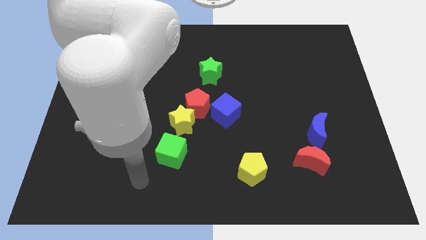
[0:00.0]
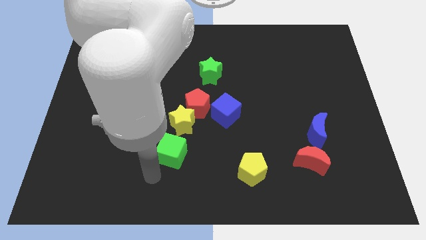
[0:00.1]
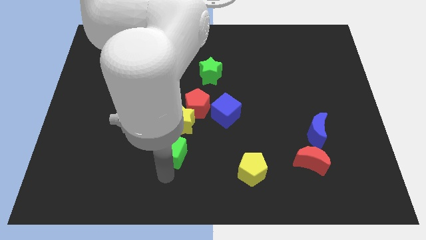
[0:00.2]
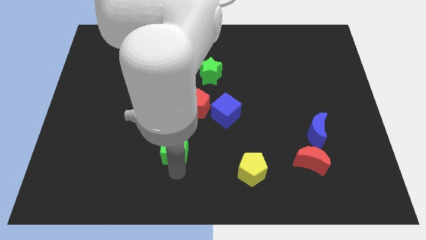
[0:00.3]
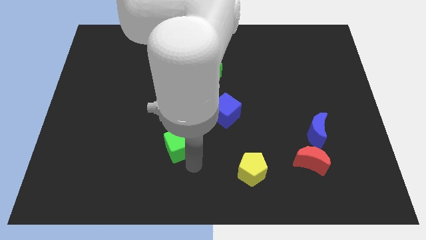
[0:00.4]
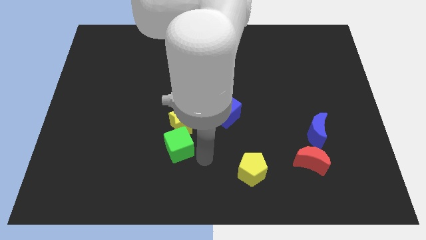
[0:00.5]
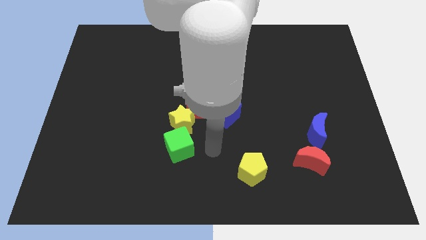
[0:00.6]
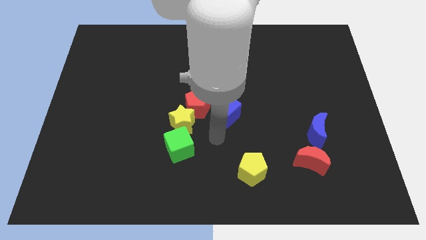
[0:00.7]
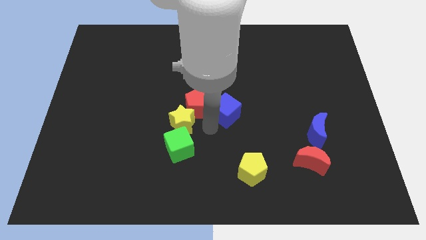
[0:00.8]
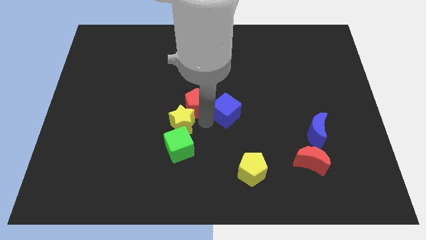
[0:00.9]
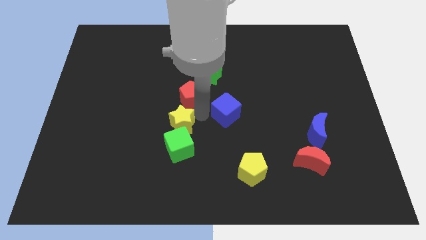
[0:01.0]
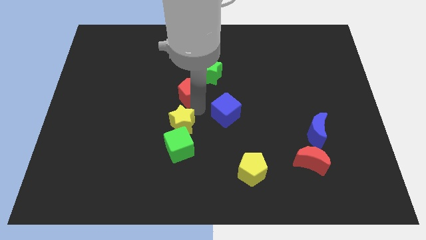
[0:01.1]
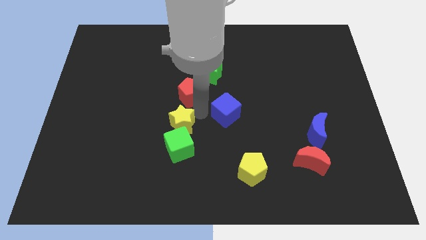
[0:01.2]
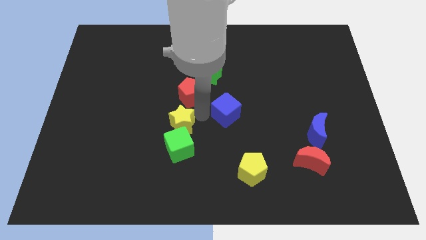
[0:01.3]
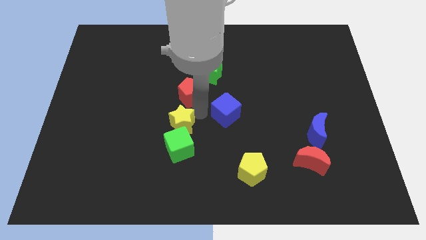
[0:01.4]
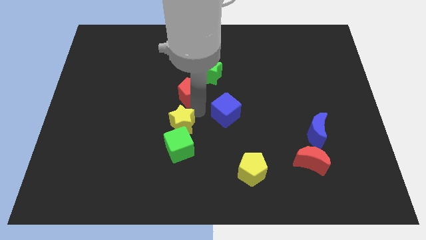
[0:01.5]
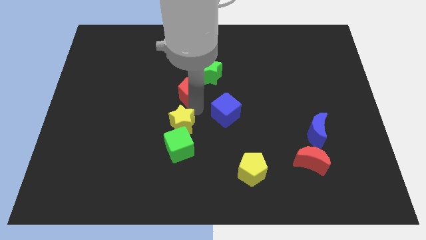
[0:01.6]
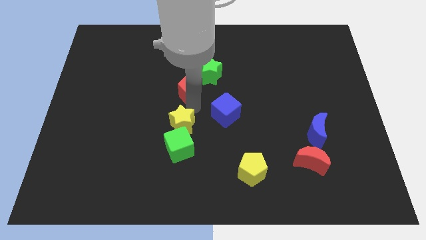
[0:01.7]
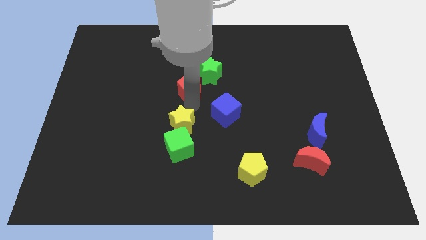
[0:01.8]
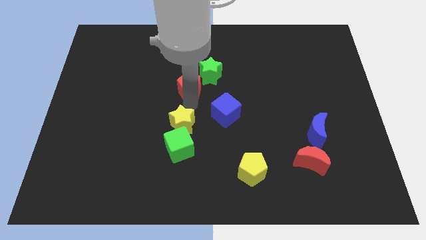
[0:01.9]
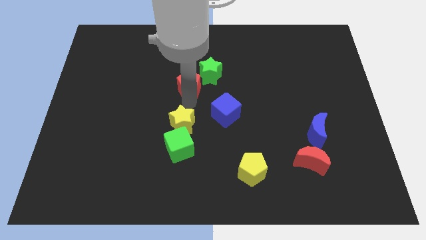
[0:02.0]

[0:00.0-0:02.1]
move the red pentagon away from the yellow star and blue cube

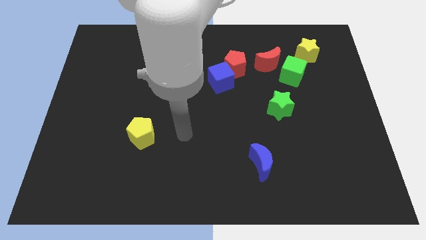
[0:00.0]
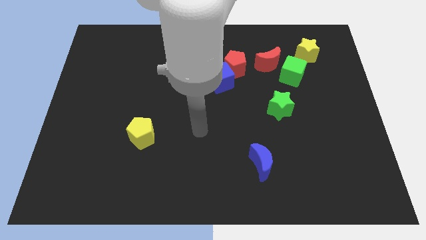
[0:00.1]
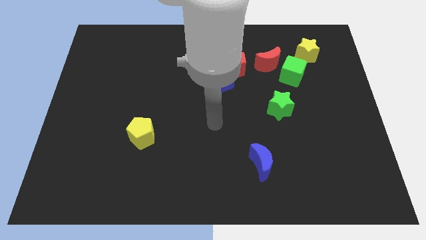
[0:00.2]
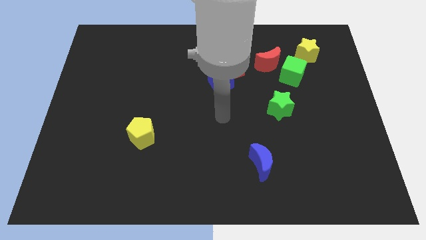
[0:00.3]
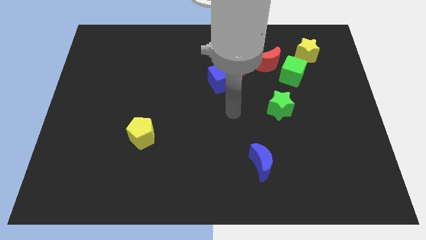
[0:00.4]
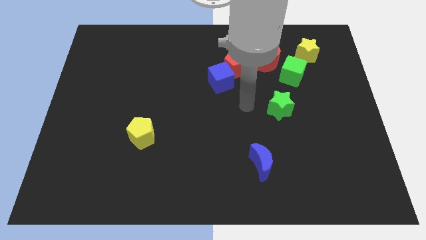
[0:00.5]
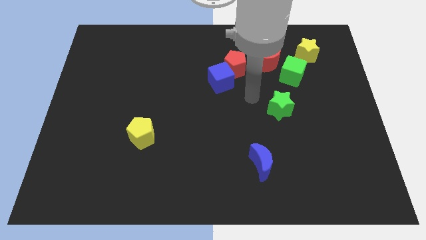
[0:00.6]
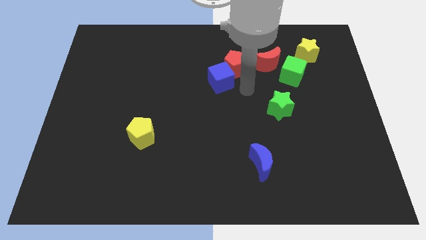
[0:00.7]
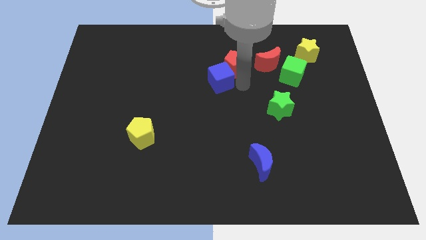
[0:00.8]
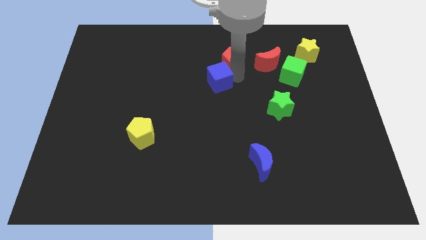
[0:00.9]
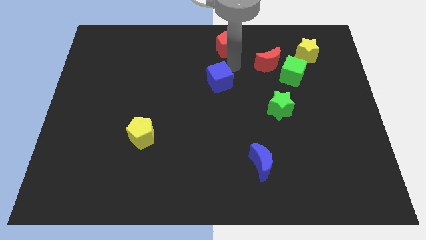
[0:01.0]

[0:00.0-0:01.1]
move the blue cube away from the red pentagon

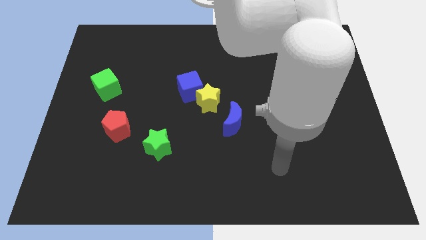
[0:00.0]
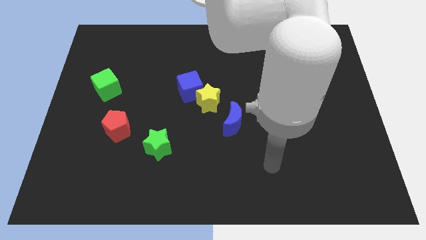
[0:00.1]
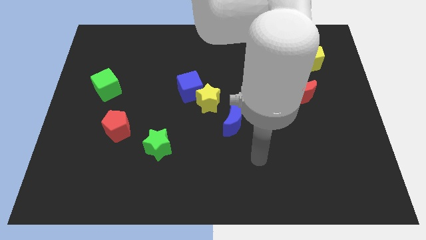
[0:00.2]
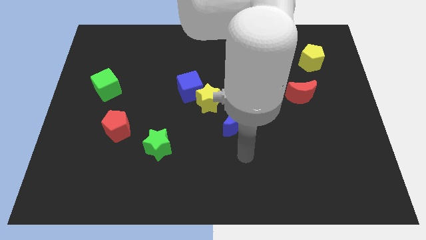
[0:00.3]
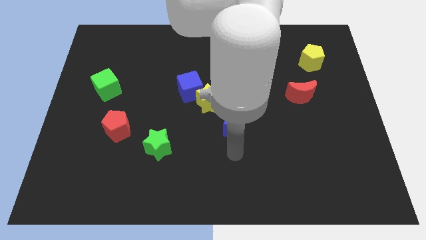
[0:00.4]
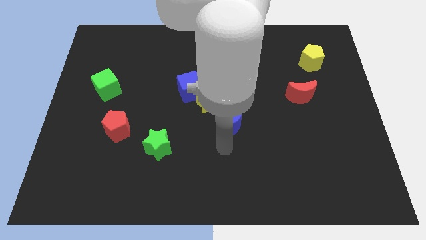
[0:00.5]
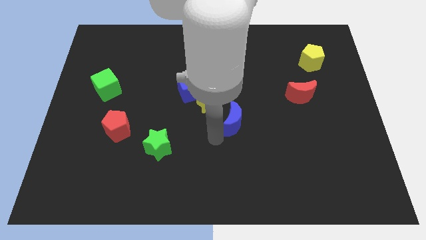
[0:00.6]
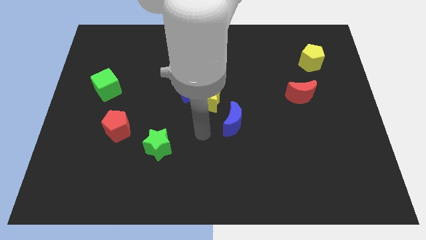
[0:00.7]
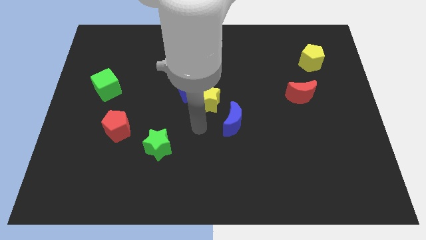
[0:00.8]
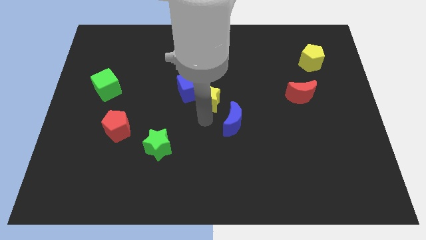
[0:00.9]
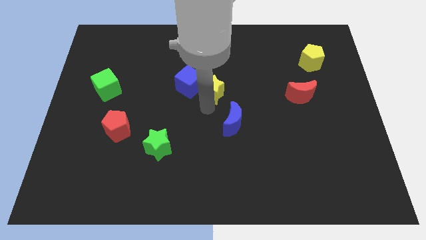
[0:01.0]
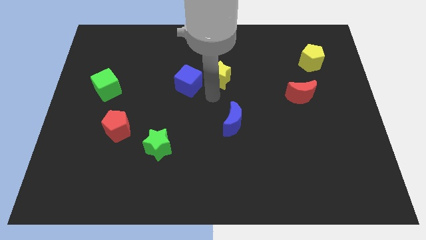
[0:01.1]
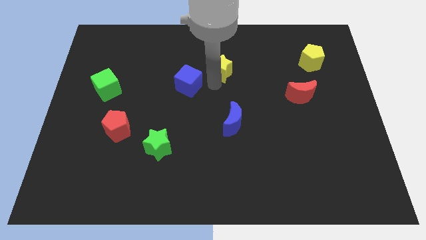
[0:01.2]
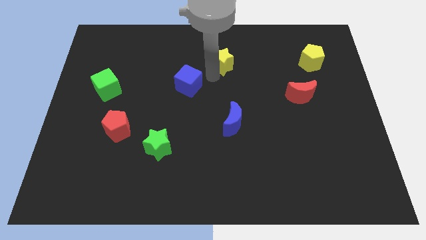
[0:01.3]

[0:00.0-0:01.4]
move the blue cube away from the yellow star

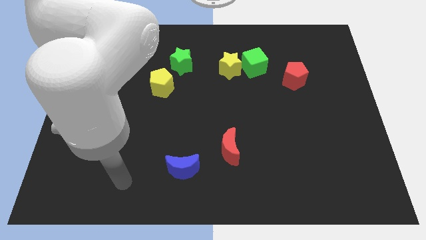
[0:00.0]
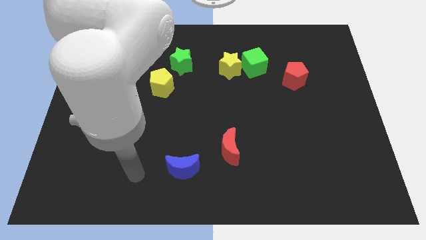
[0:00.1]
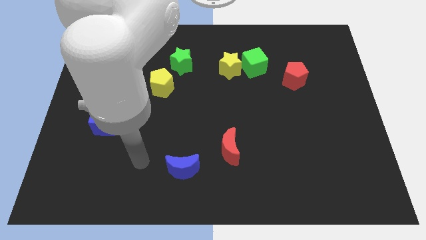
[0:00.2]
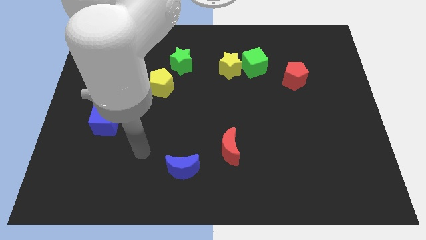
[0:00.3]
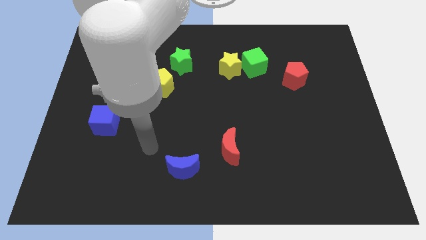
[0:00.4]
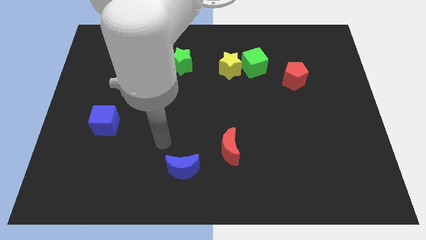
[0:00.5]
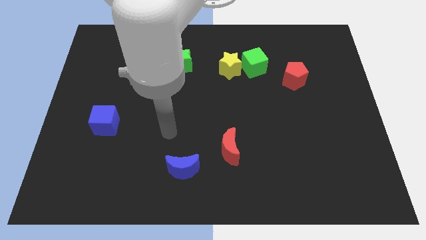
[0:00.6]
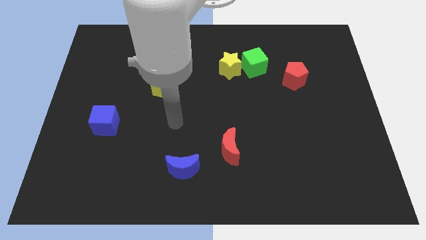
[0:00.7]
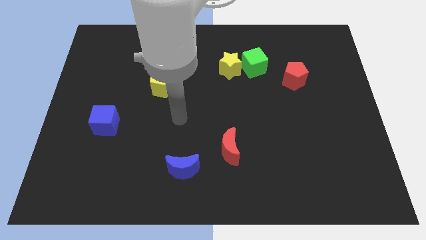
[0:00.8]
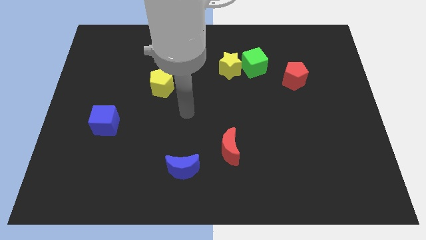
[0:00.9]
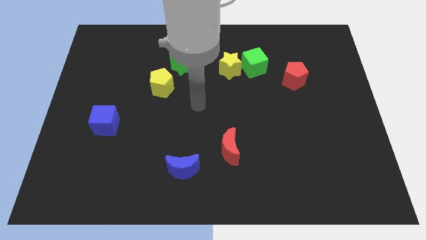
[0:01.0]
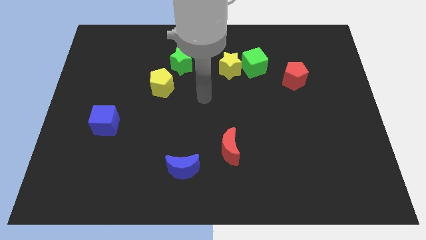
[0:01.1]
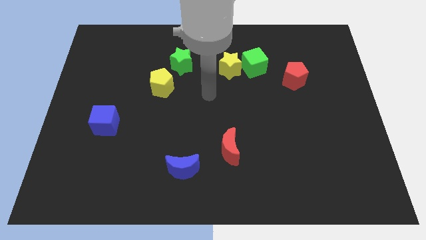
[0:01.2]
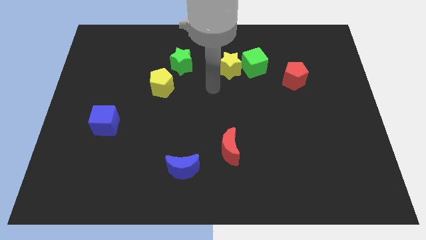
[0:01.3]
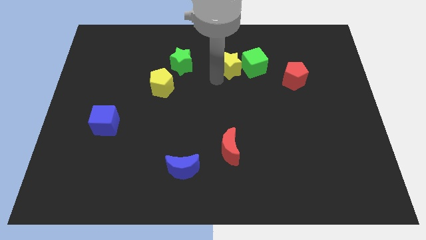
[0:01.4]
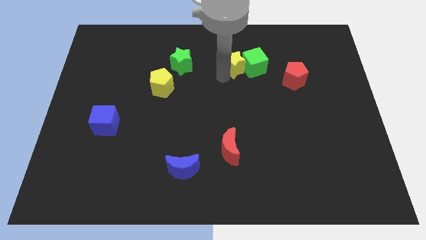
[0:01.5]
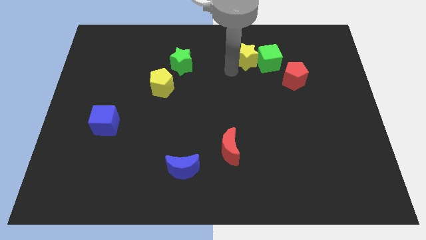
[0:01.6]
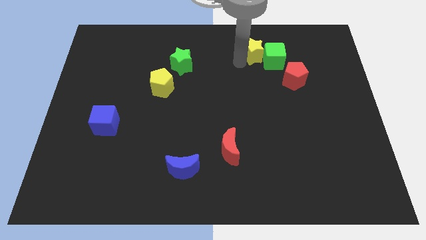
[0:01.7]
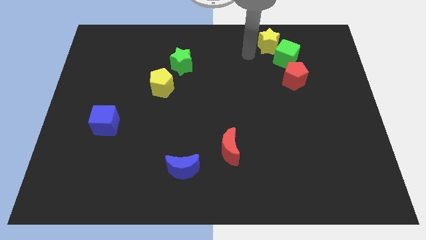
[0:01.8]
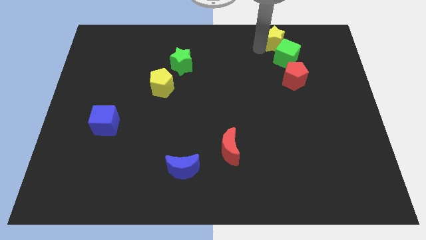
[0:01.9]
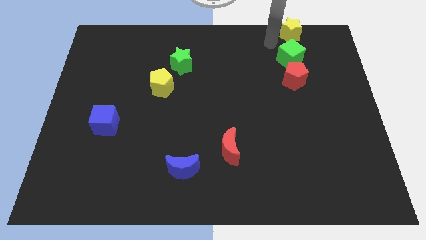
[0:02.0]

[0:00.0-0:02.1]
move the green cube away from the yellow star

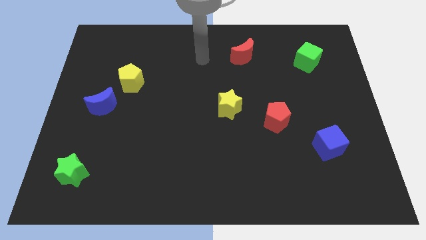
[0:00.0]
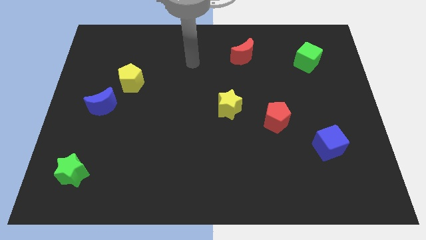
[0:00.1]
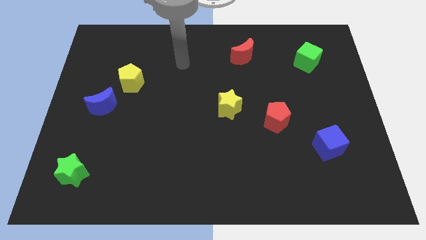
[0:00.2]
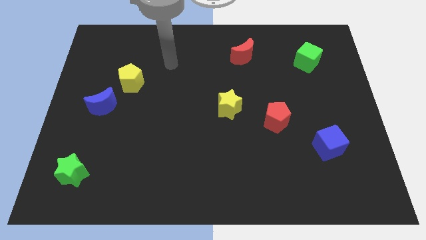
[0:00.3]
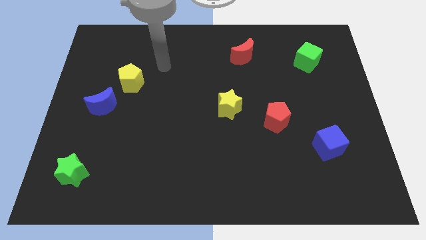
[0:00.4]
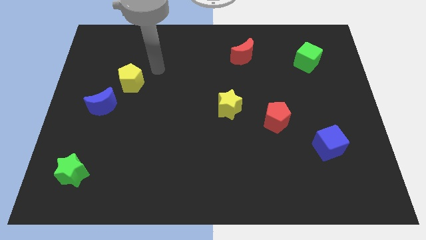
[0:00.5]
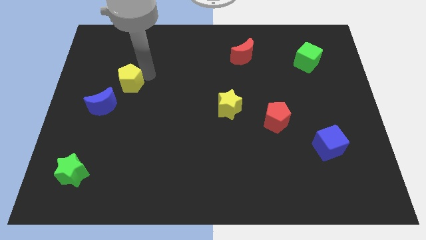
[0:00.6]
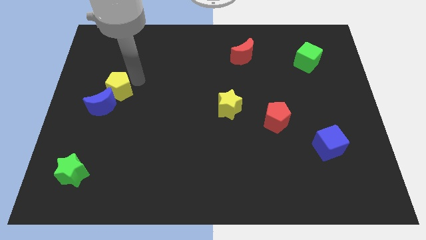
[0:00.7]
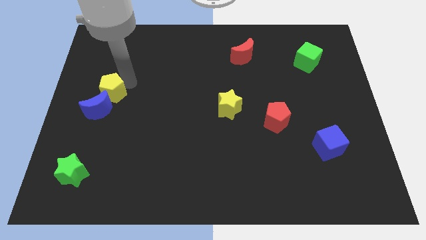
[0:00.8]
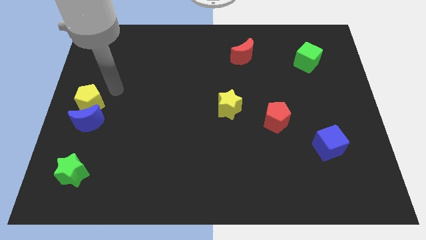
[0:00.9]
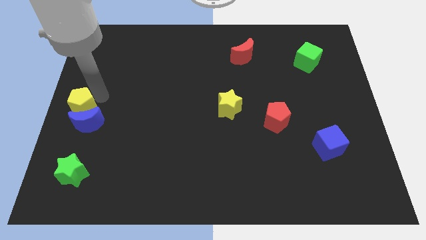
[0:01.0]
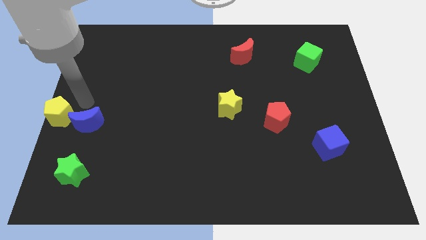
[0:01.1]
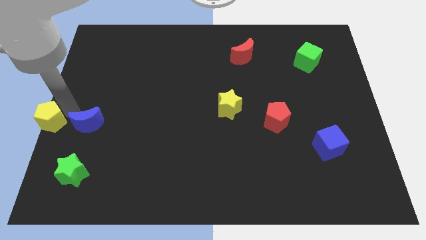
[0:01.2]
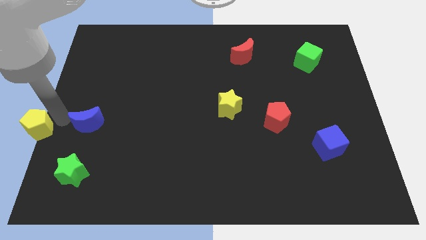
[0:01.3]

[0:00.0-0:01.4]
pull the blue moon apart from the yellow pentagon

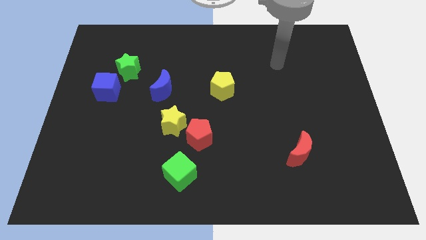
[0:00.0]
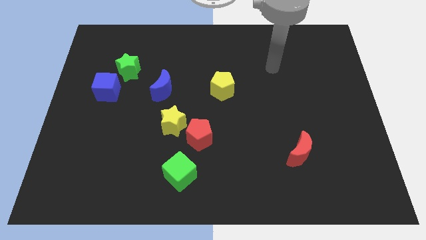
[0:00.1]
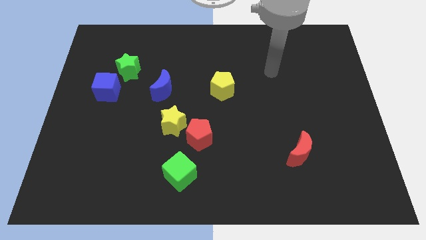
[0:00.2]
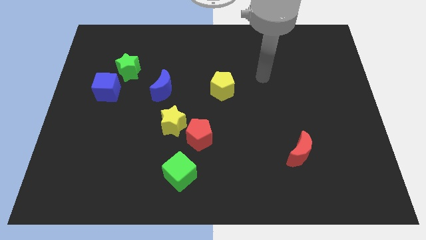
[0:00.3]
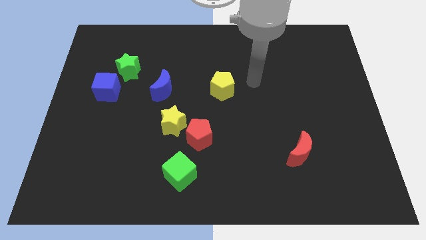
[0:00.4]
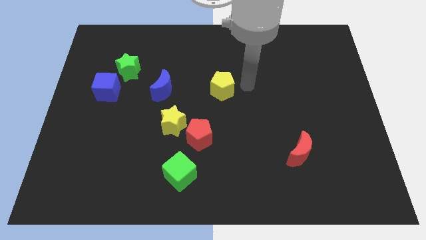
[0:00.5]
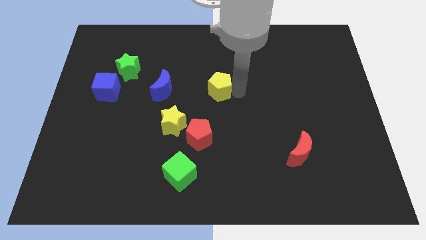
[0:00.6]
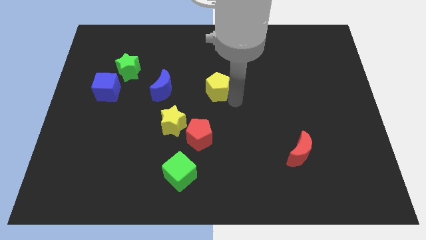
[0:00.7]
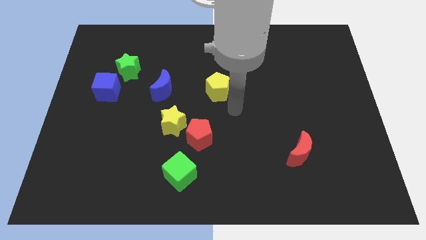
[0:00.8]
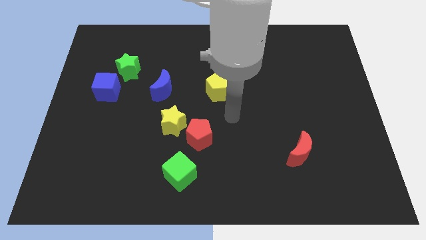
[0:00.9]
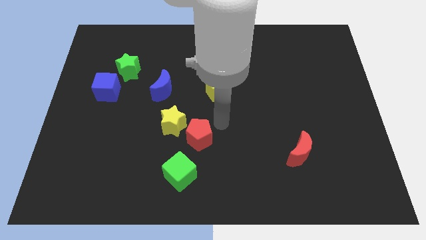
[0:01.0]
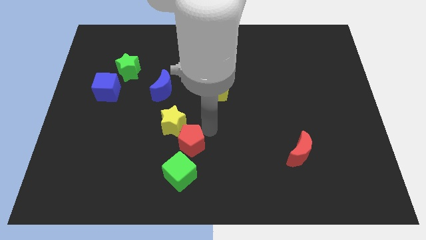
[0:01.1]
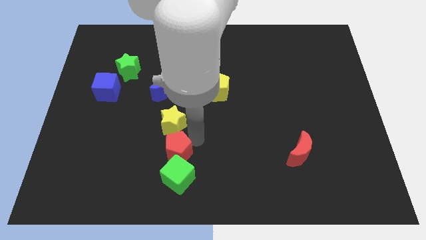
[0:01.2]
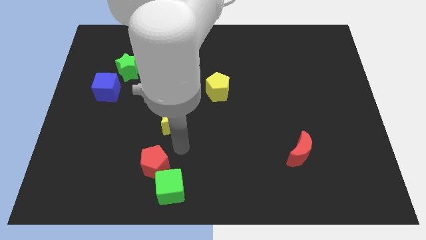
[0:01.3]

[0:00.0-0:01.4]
separate the yellow star from the red pentagon
